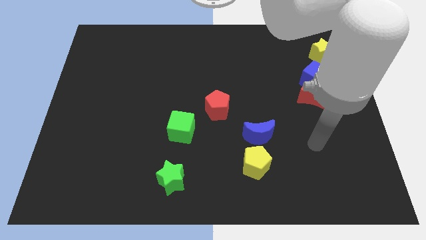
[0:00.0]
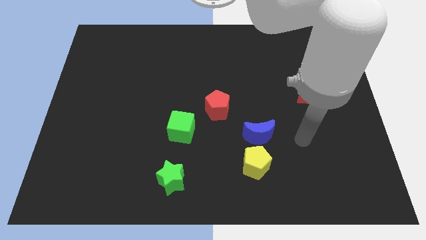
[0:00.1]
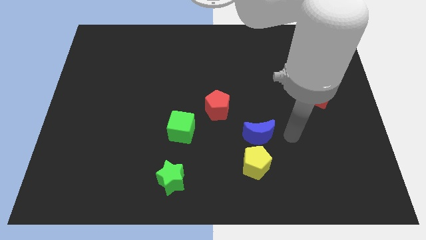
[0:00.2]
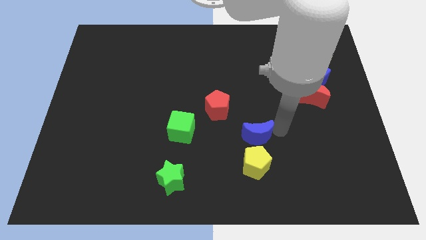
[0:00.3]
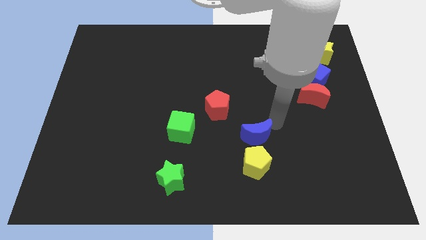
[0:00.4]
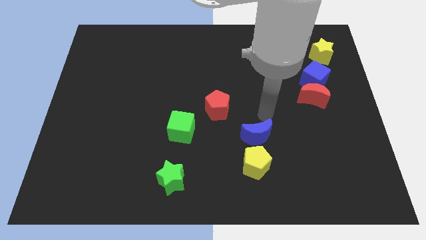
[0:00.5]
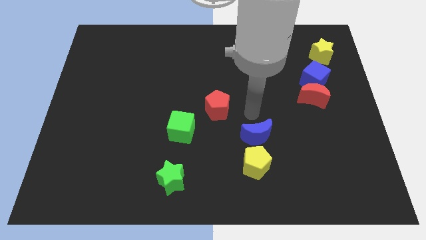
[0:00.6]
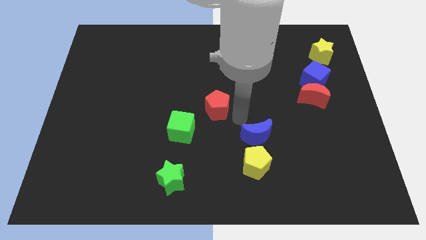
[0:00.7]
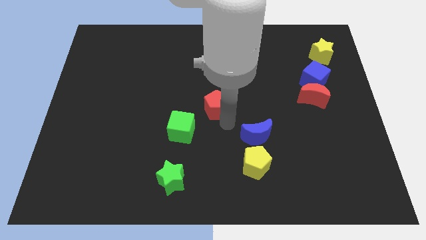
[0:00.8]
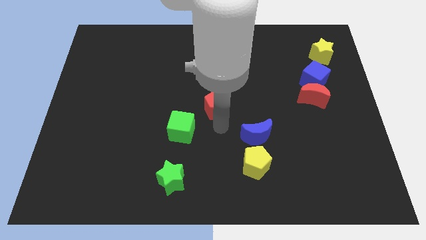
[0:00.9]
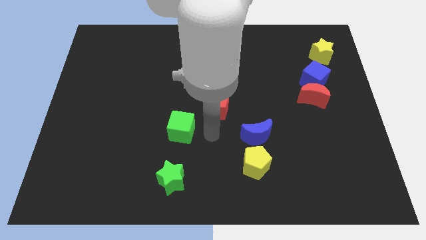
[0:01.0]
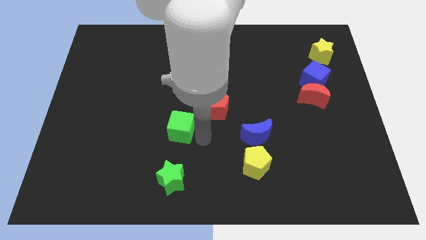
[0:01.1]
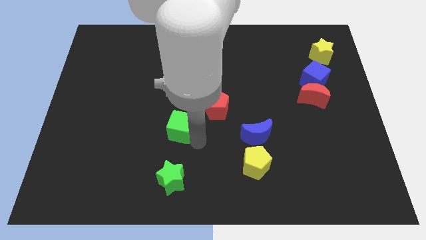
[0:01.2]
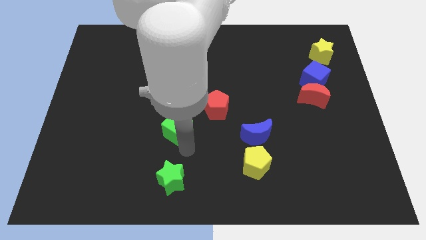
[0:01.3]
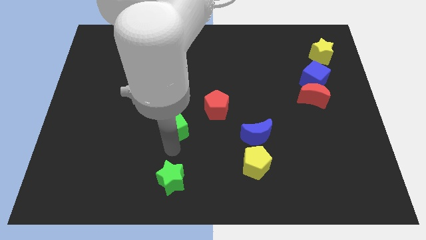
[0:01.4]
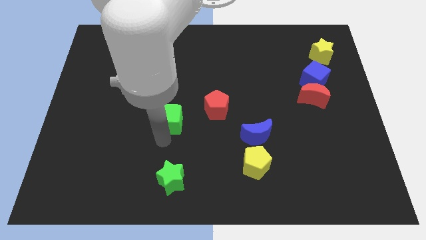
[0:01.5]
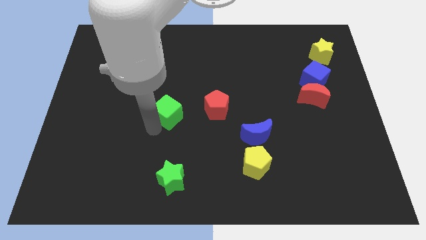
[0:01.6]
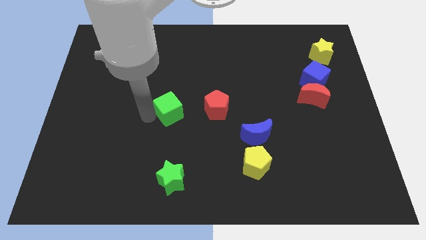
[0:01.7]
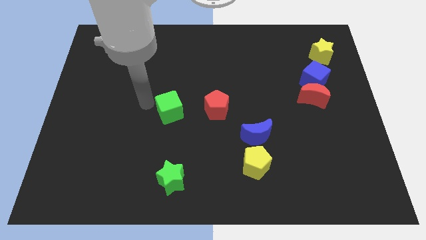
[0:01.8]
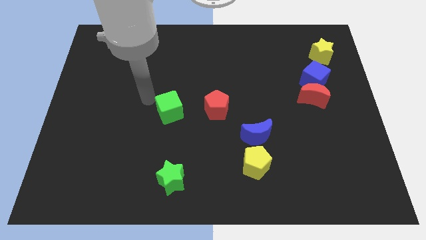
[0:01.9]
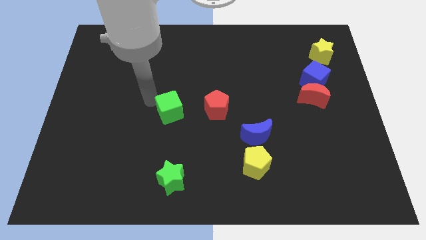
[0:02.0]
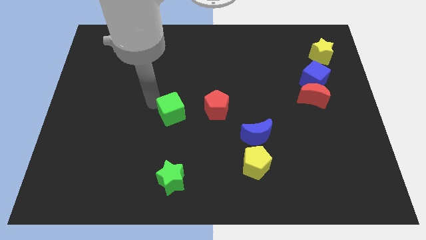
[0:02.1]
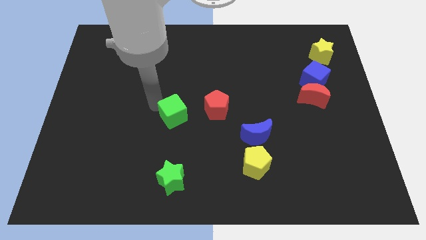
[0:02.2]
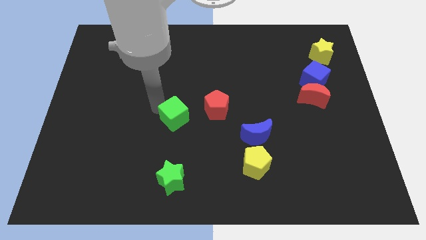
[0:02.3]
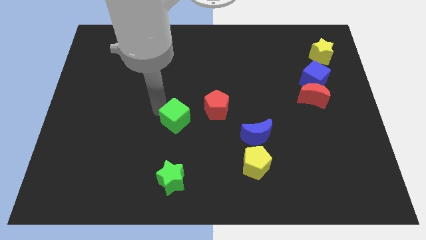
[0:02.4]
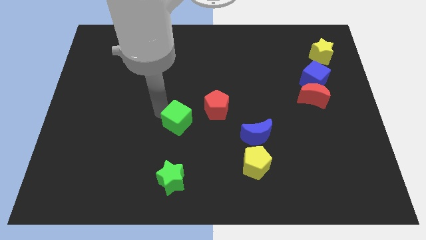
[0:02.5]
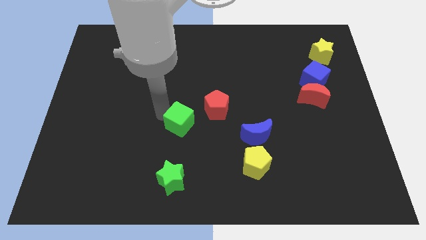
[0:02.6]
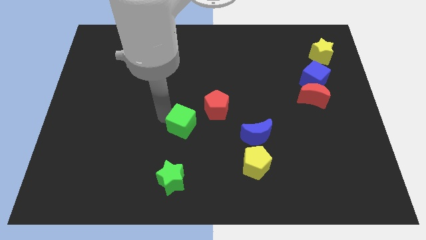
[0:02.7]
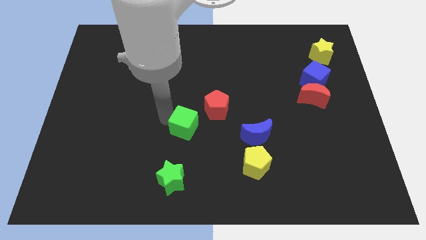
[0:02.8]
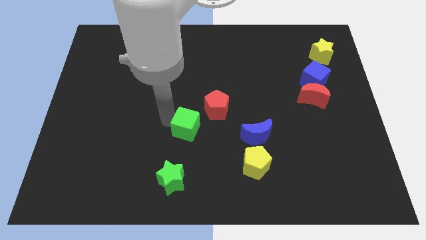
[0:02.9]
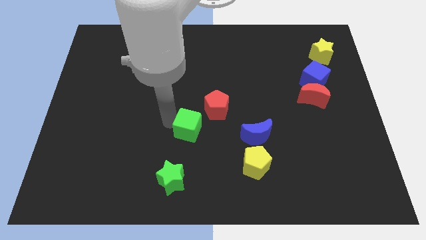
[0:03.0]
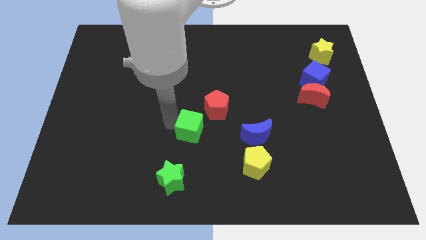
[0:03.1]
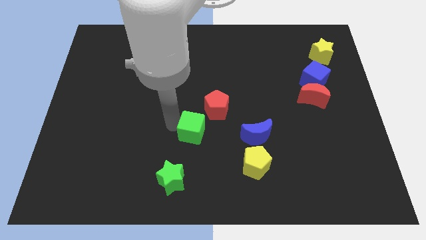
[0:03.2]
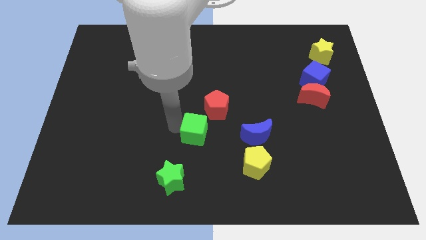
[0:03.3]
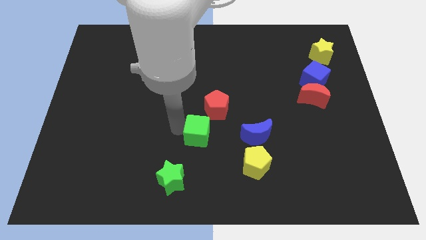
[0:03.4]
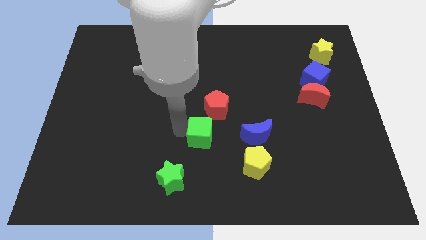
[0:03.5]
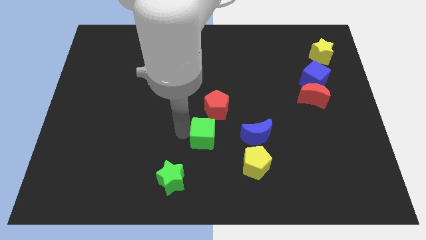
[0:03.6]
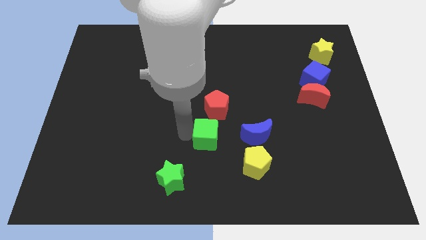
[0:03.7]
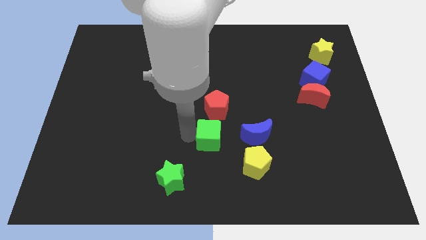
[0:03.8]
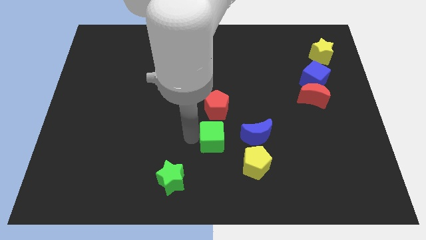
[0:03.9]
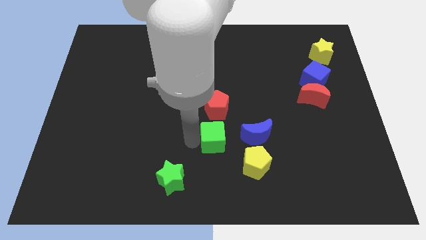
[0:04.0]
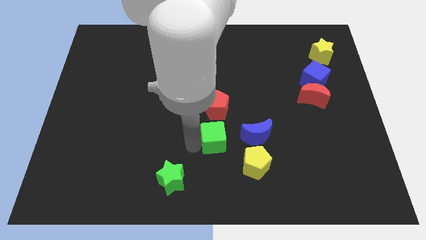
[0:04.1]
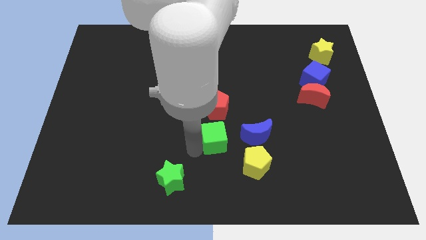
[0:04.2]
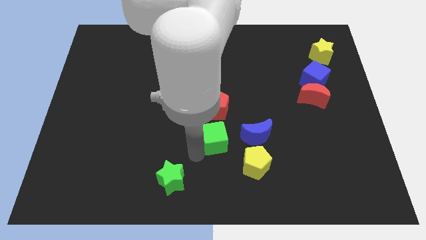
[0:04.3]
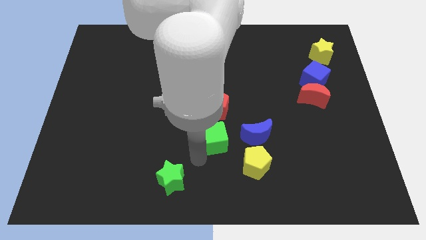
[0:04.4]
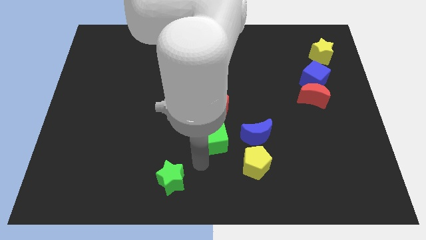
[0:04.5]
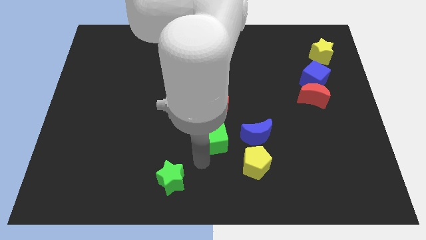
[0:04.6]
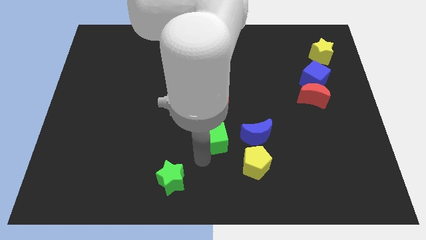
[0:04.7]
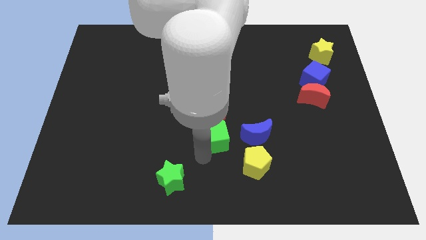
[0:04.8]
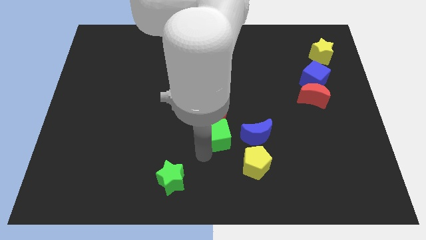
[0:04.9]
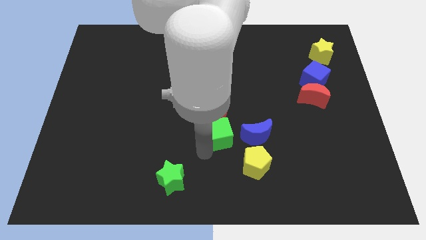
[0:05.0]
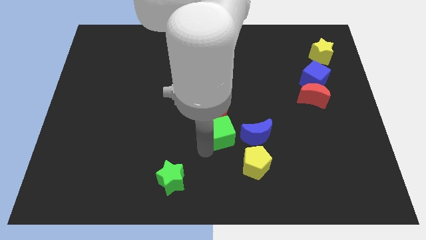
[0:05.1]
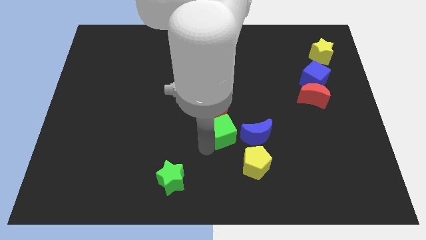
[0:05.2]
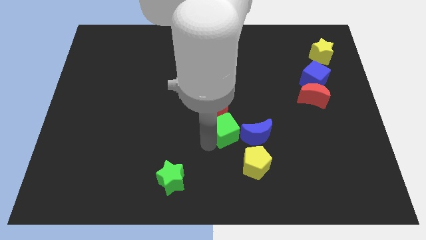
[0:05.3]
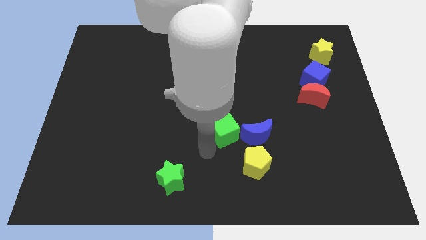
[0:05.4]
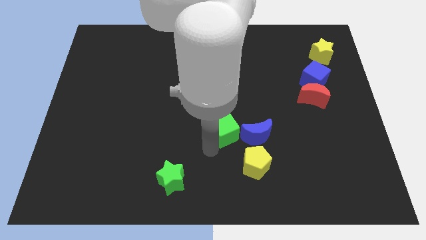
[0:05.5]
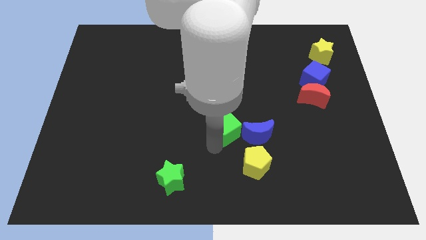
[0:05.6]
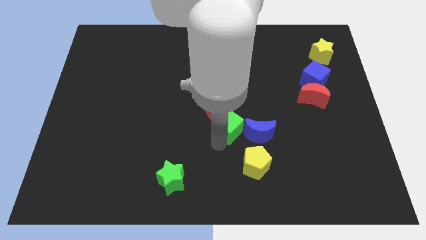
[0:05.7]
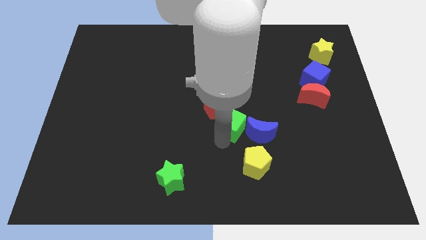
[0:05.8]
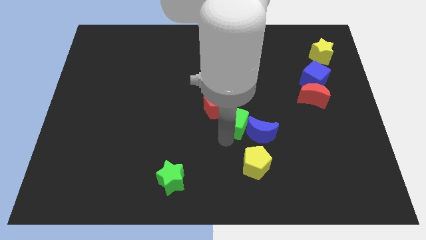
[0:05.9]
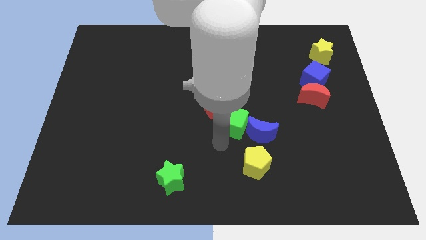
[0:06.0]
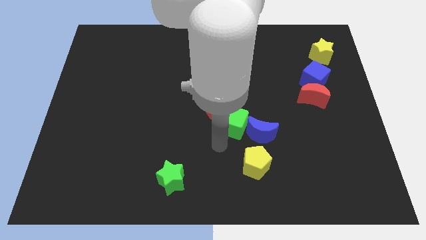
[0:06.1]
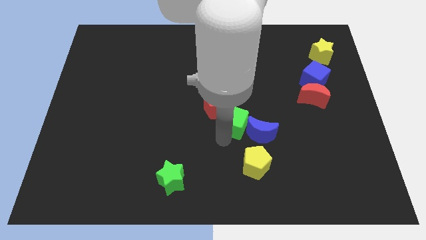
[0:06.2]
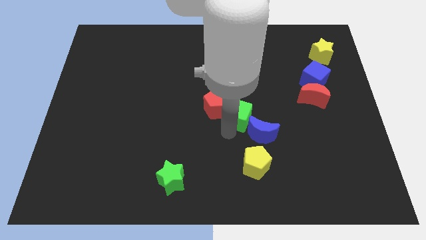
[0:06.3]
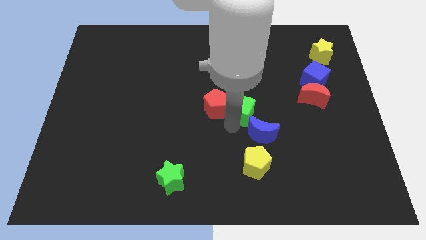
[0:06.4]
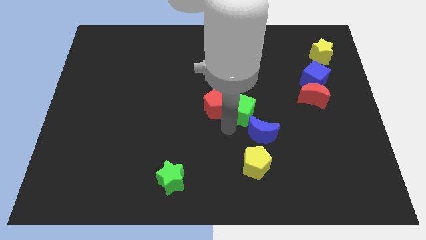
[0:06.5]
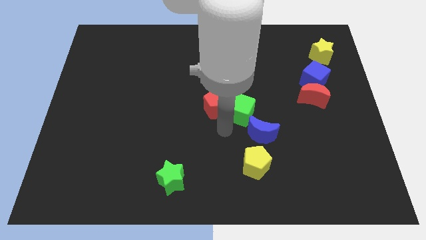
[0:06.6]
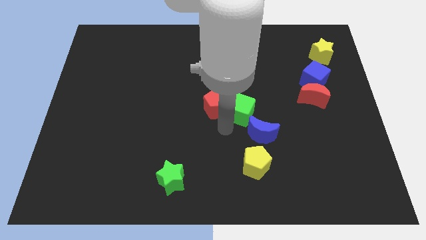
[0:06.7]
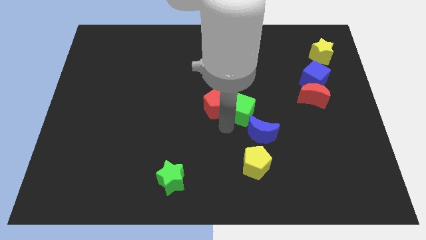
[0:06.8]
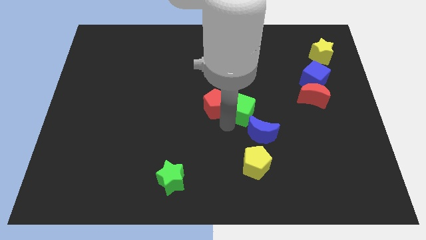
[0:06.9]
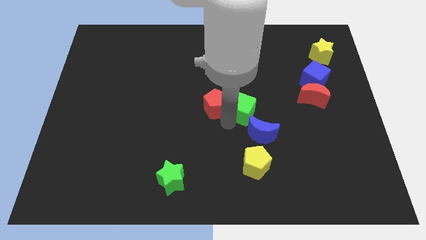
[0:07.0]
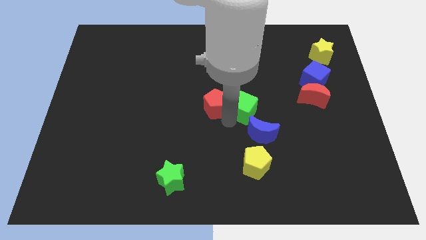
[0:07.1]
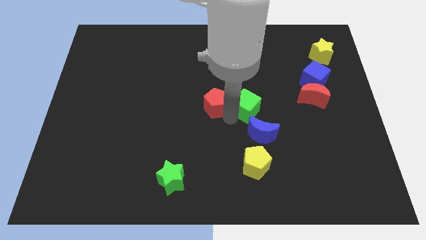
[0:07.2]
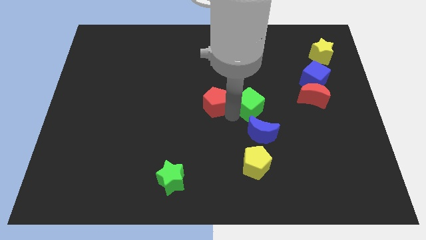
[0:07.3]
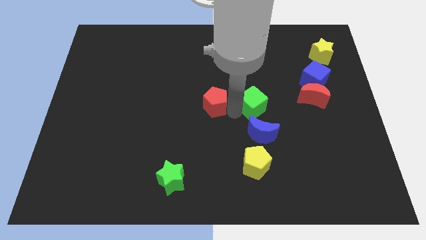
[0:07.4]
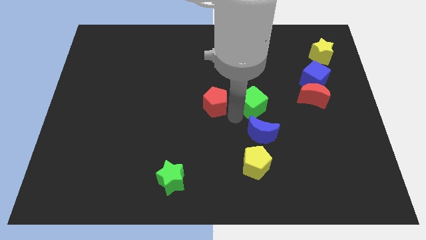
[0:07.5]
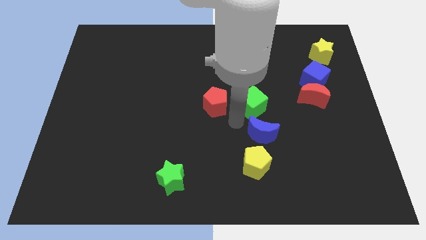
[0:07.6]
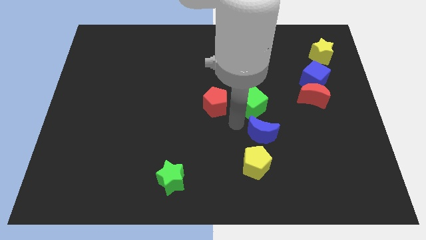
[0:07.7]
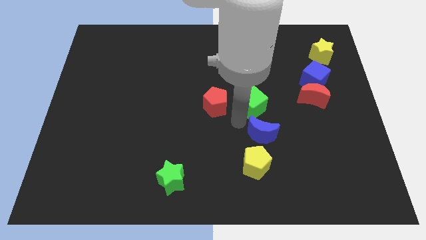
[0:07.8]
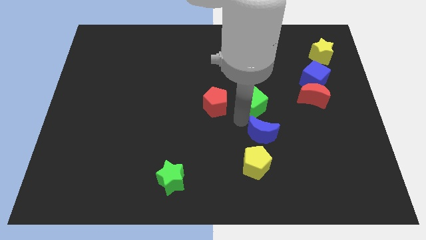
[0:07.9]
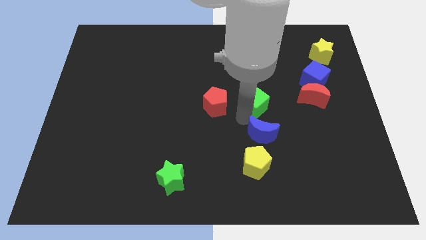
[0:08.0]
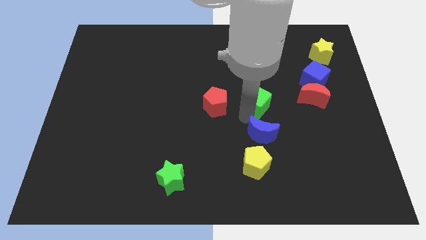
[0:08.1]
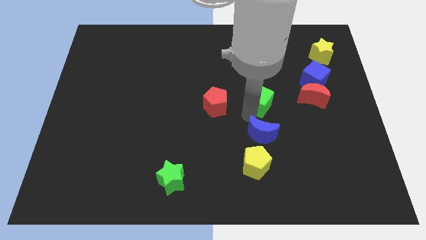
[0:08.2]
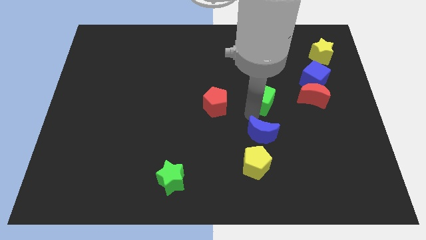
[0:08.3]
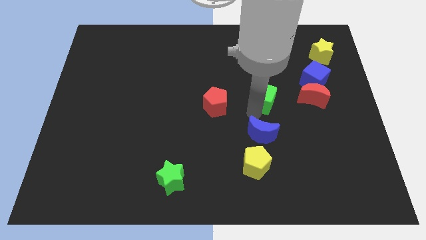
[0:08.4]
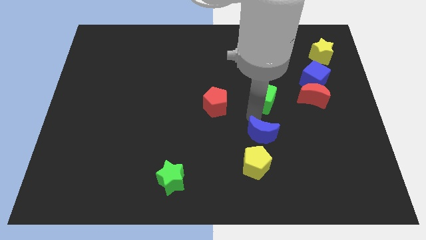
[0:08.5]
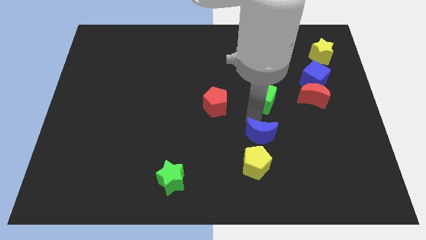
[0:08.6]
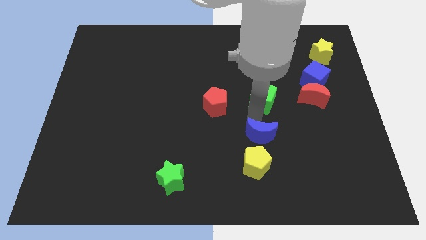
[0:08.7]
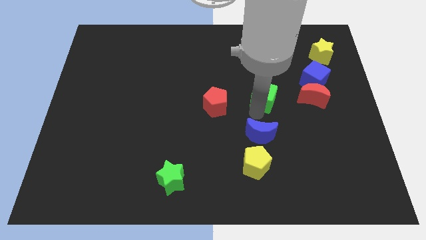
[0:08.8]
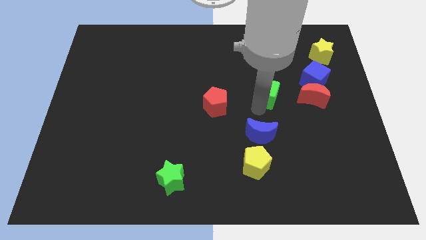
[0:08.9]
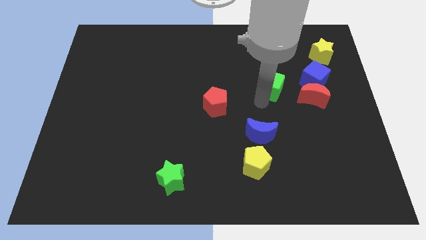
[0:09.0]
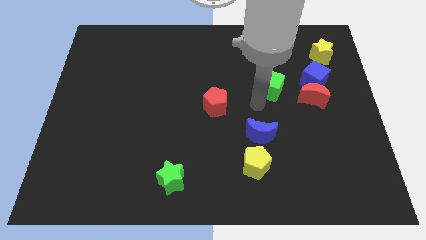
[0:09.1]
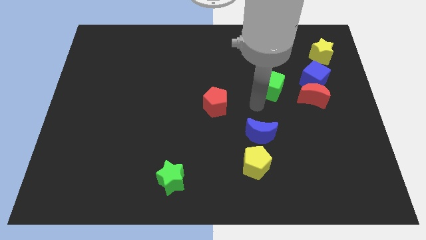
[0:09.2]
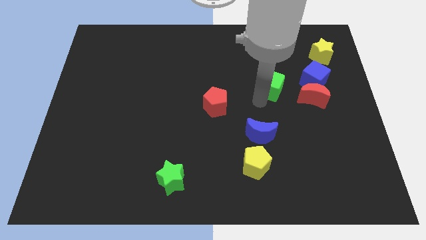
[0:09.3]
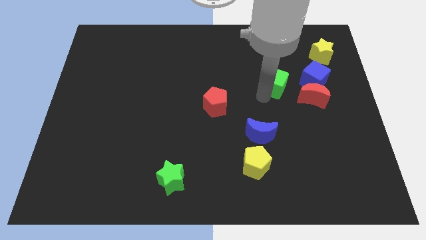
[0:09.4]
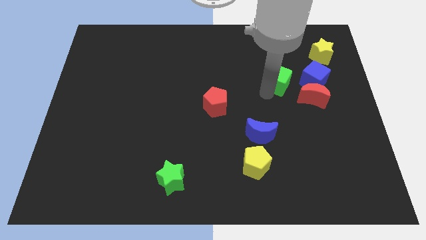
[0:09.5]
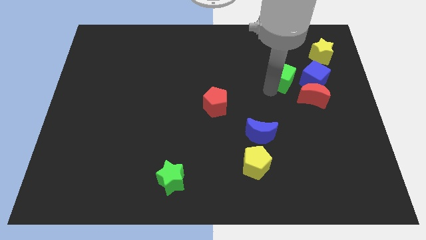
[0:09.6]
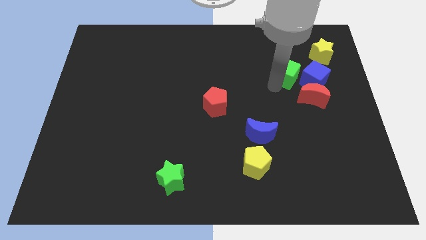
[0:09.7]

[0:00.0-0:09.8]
push the green cube diagonally up and to the left of the blue cube
